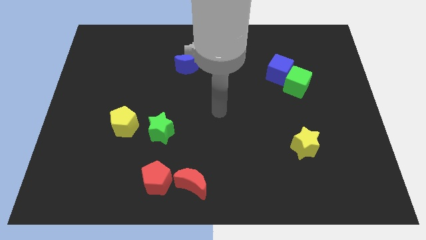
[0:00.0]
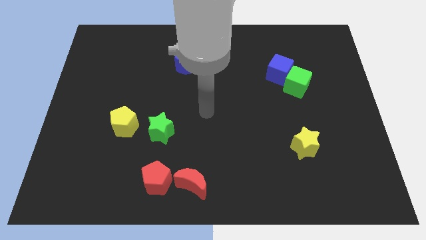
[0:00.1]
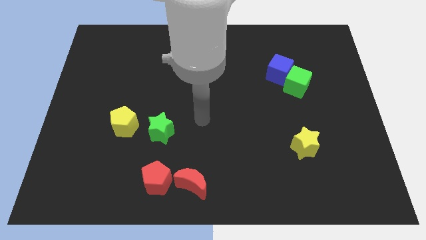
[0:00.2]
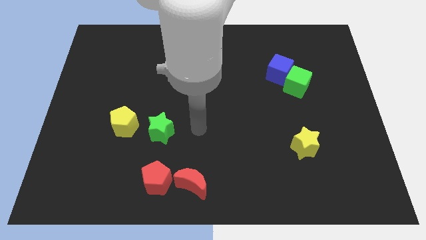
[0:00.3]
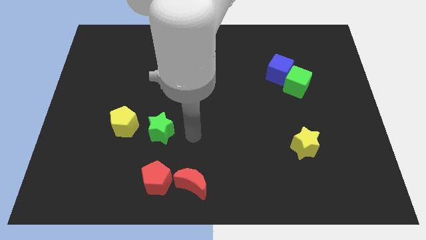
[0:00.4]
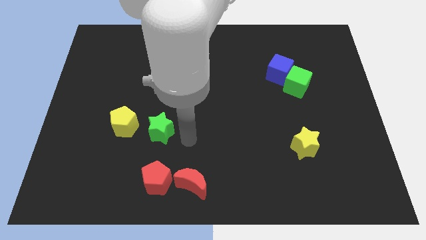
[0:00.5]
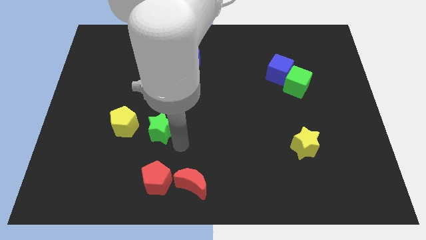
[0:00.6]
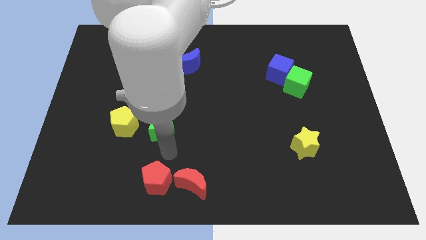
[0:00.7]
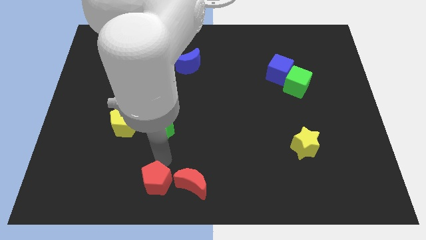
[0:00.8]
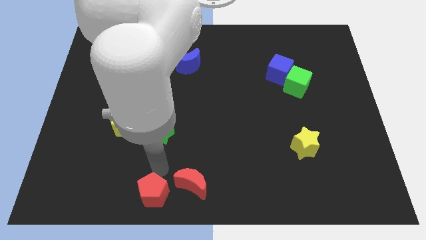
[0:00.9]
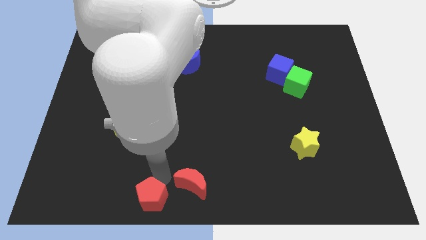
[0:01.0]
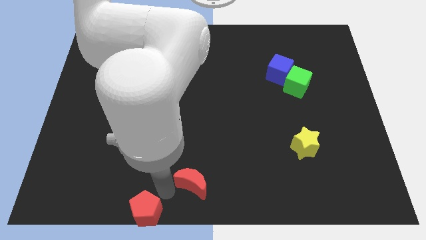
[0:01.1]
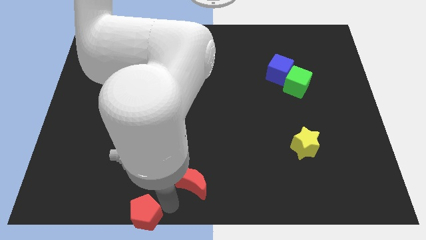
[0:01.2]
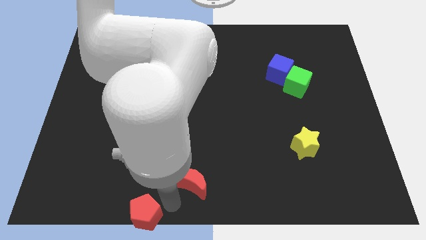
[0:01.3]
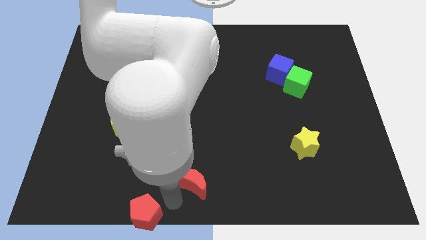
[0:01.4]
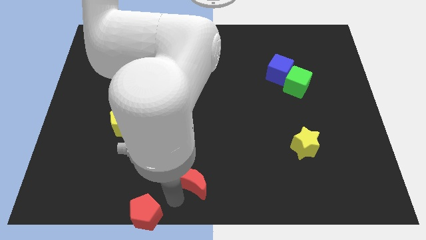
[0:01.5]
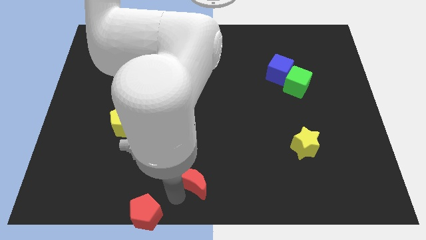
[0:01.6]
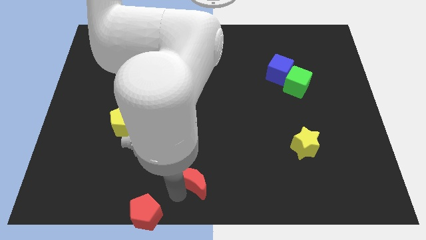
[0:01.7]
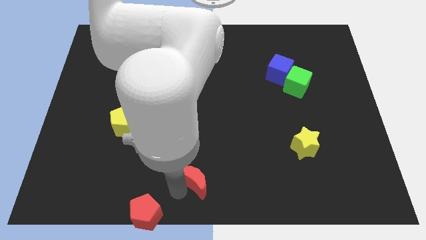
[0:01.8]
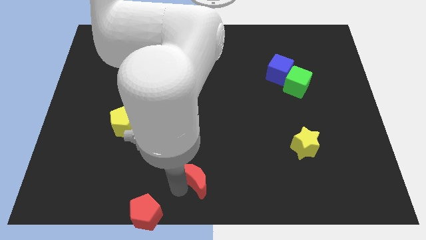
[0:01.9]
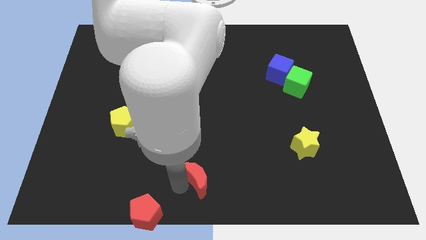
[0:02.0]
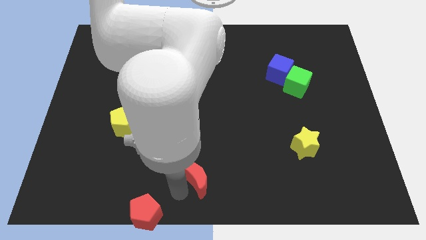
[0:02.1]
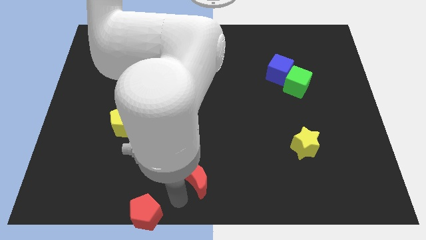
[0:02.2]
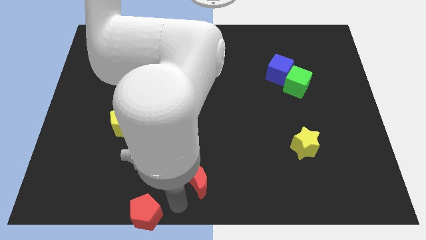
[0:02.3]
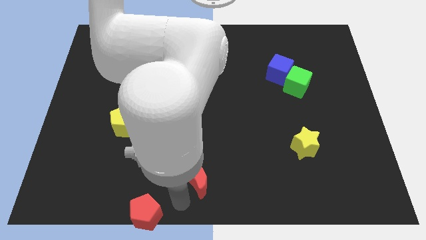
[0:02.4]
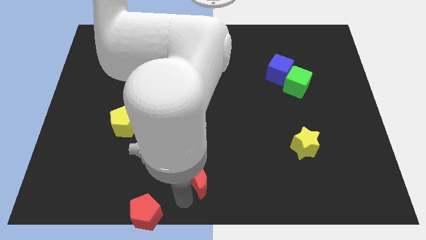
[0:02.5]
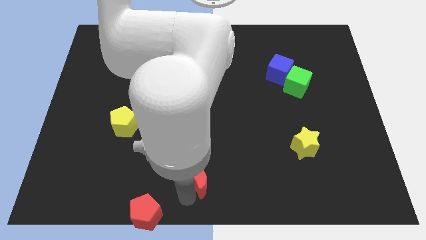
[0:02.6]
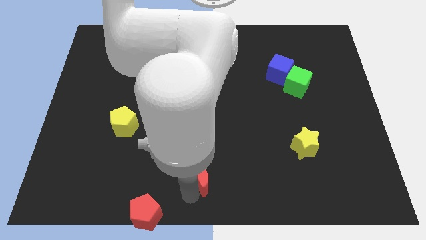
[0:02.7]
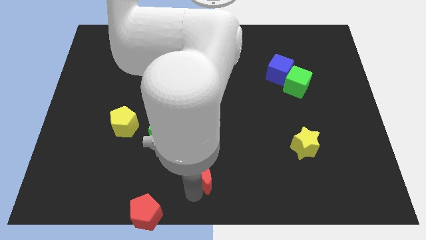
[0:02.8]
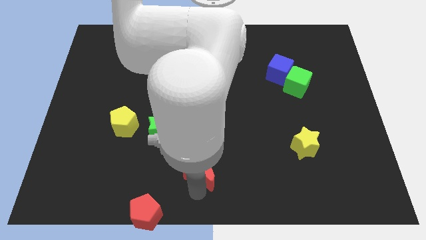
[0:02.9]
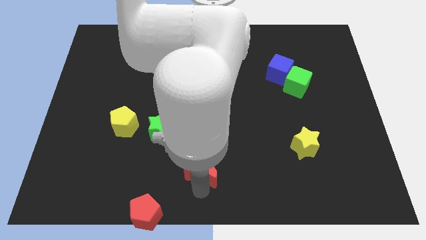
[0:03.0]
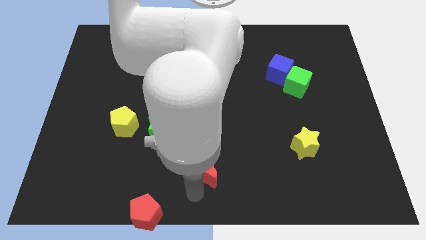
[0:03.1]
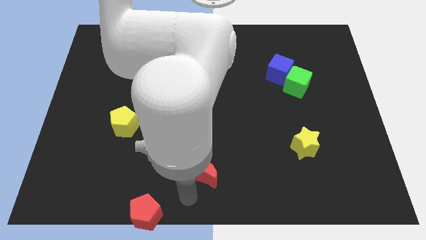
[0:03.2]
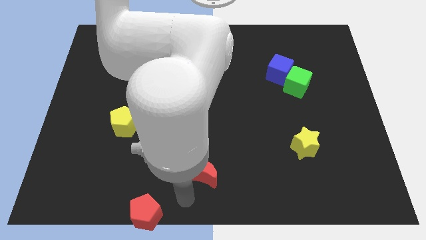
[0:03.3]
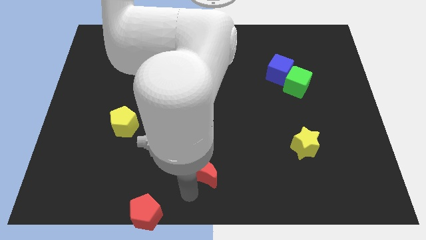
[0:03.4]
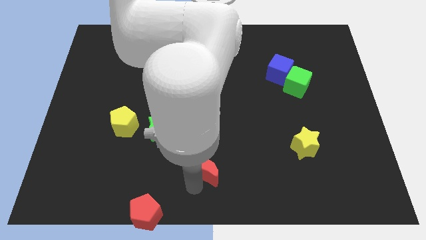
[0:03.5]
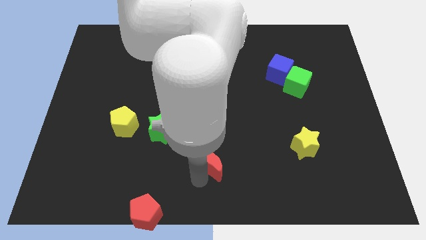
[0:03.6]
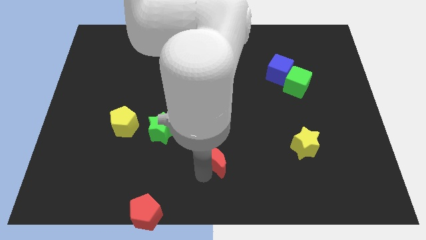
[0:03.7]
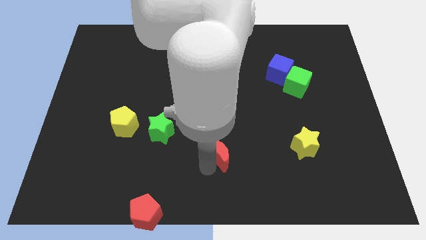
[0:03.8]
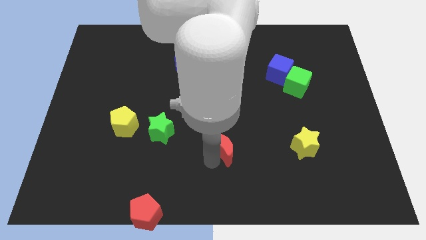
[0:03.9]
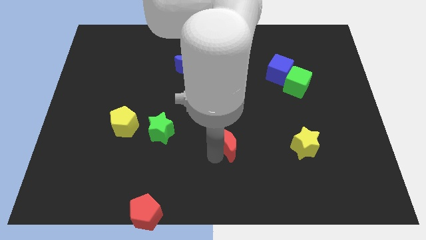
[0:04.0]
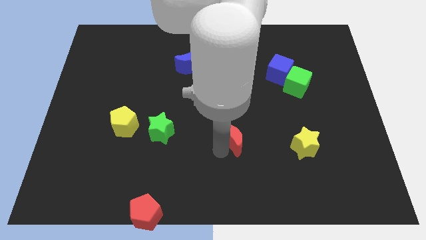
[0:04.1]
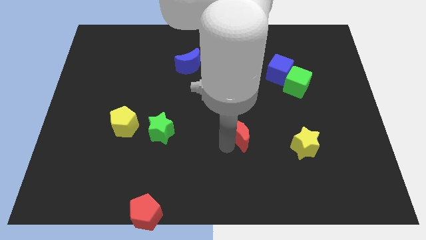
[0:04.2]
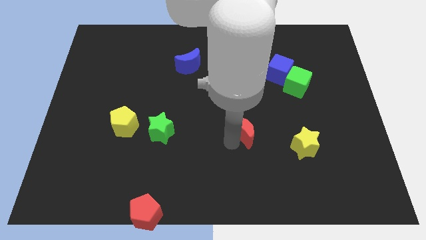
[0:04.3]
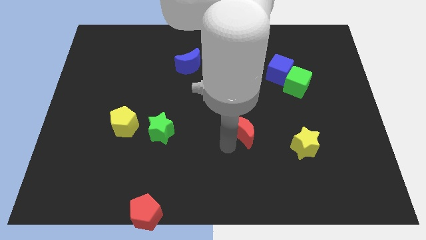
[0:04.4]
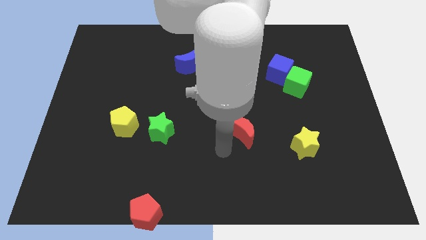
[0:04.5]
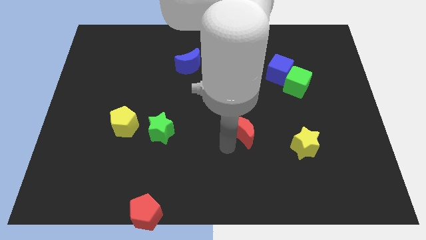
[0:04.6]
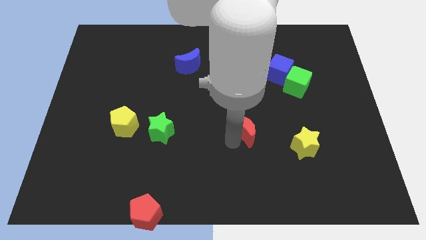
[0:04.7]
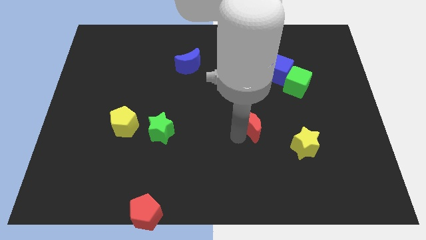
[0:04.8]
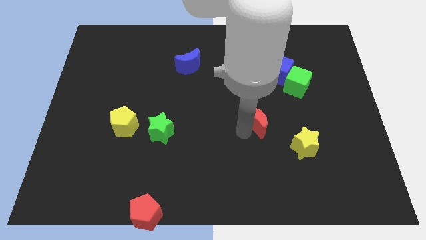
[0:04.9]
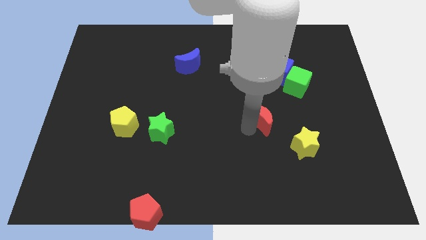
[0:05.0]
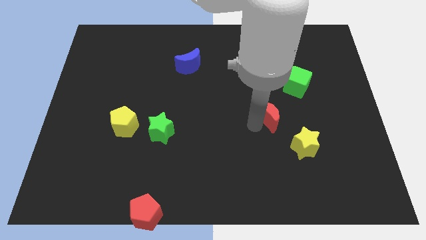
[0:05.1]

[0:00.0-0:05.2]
move the red moon to the bottom left side of the green cube

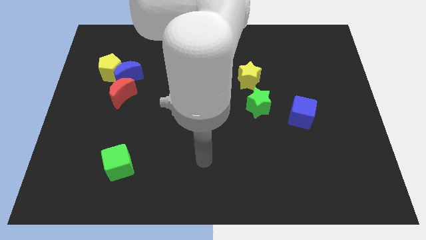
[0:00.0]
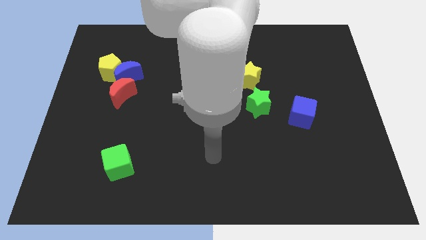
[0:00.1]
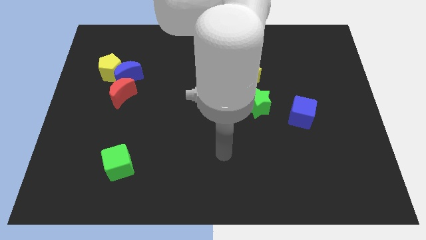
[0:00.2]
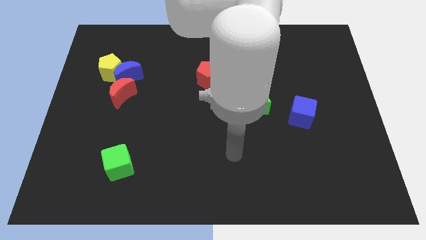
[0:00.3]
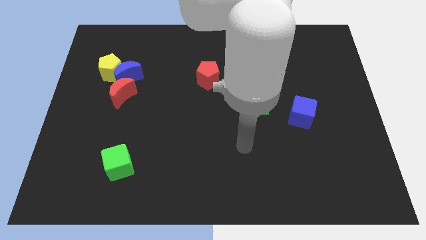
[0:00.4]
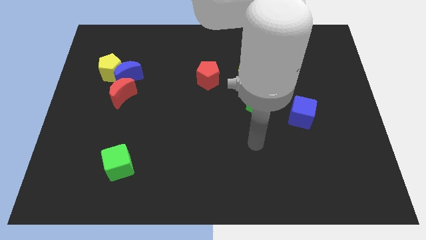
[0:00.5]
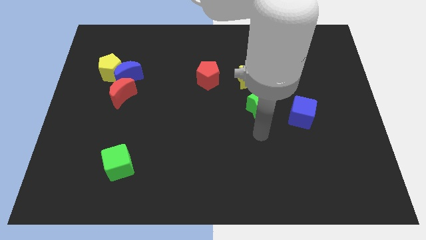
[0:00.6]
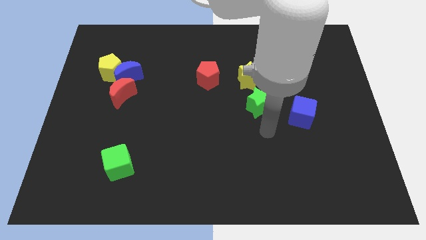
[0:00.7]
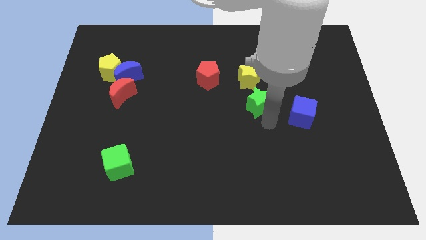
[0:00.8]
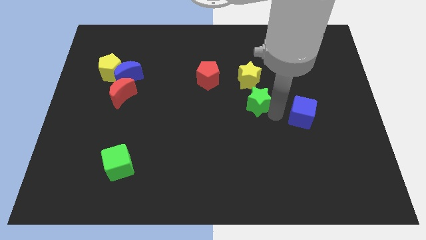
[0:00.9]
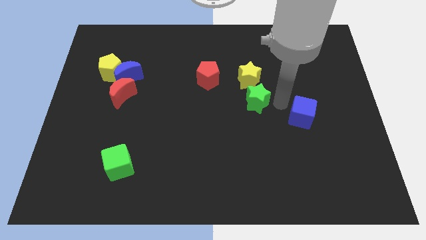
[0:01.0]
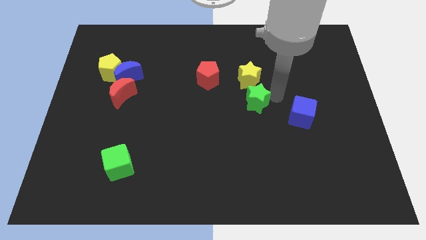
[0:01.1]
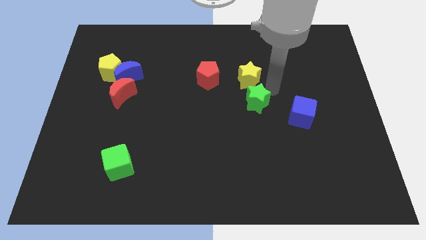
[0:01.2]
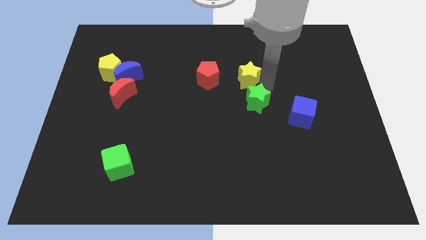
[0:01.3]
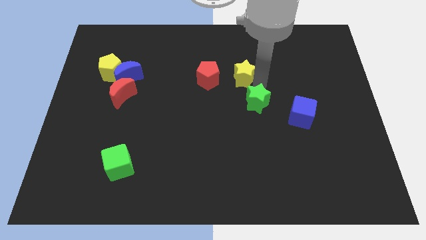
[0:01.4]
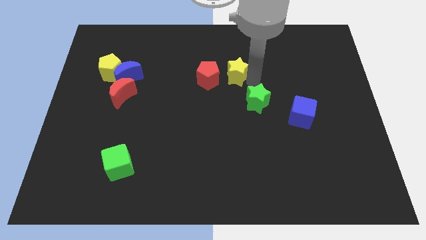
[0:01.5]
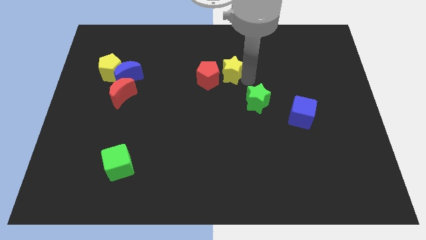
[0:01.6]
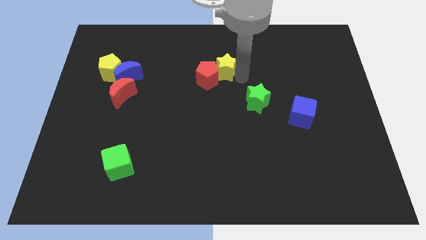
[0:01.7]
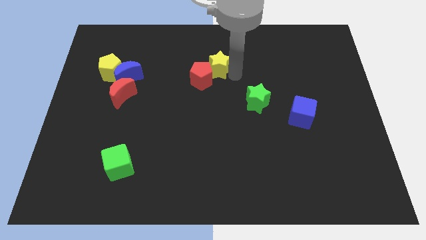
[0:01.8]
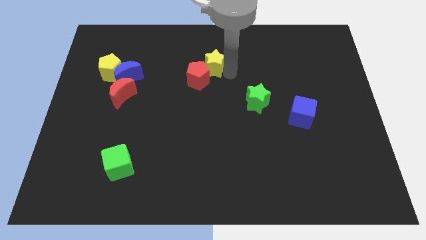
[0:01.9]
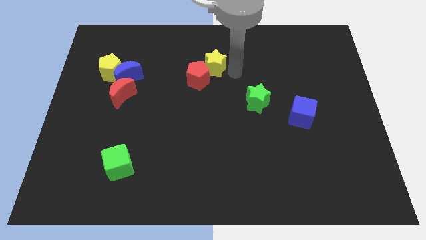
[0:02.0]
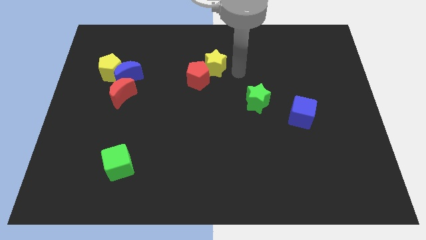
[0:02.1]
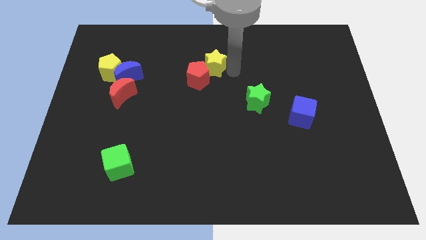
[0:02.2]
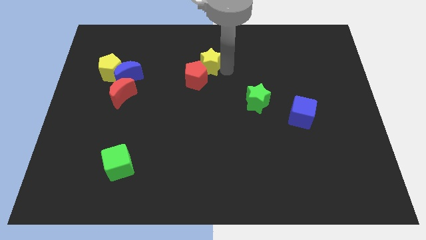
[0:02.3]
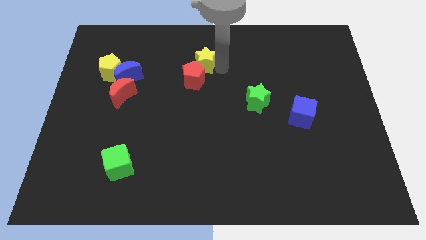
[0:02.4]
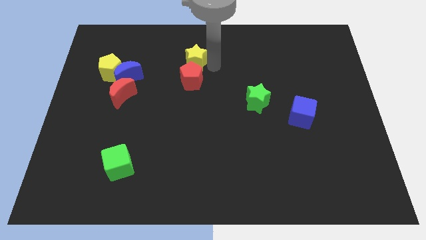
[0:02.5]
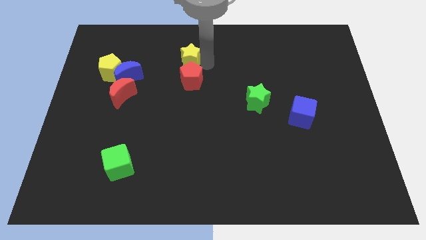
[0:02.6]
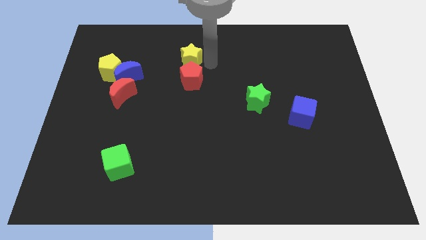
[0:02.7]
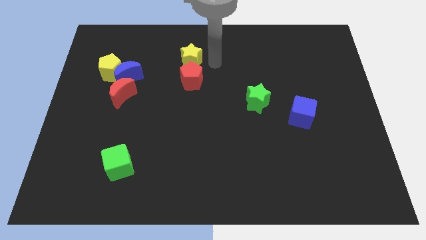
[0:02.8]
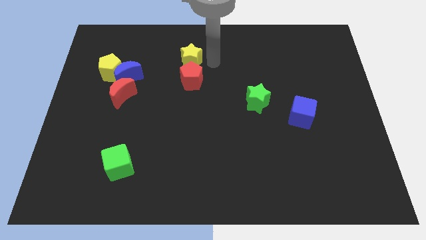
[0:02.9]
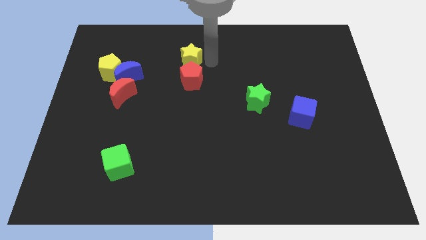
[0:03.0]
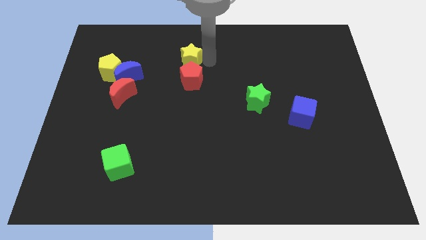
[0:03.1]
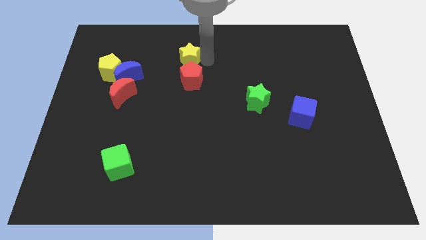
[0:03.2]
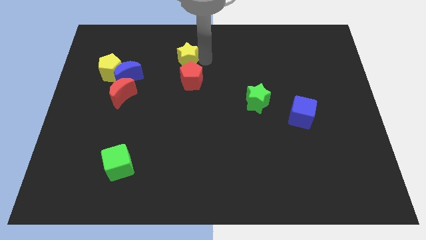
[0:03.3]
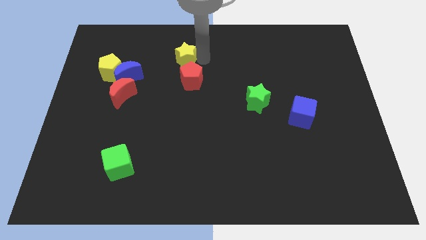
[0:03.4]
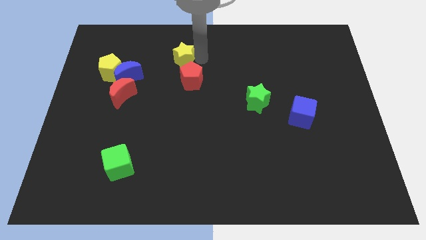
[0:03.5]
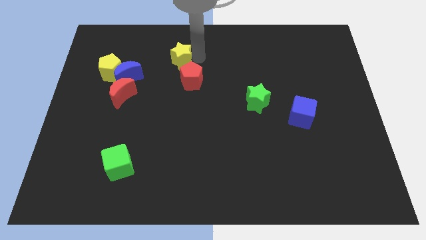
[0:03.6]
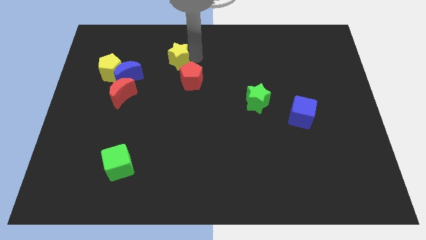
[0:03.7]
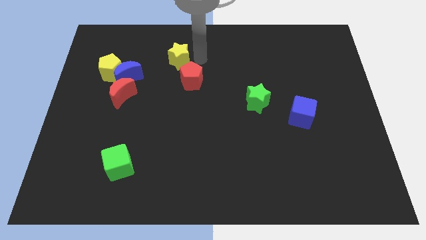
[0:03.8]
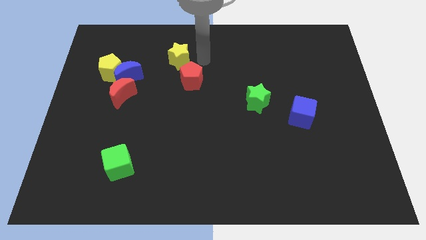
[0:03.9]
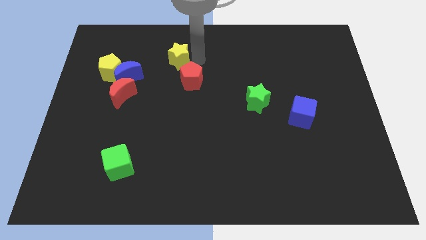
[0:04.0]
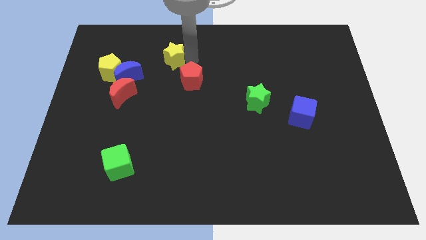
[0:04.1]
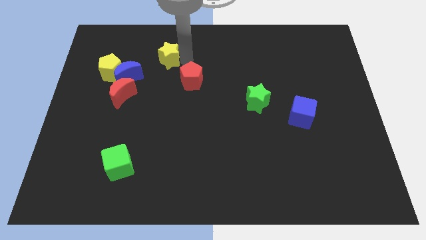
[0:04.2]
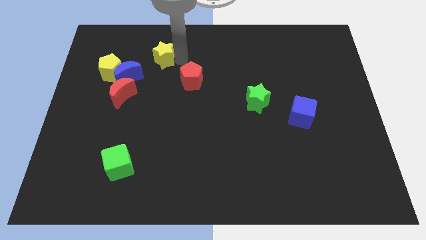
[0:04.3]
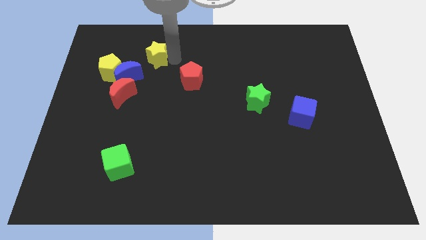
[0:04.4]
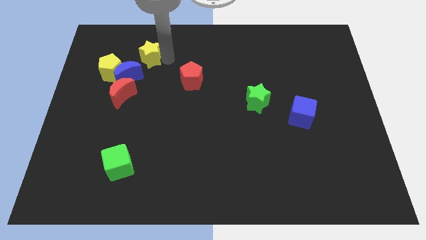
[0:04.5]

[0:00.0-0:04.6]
move the yellow star diagonally up and to the right of the yellow pentagon
